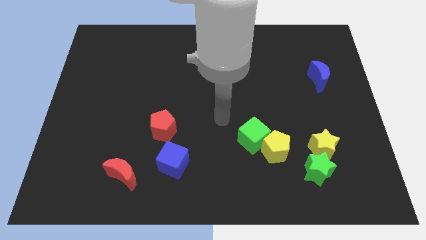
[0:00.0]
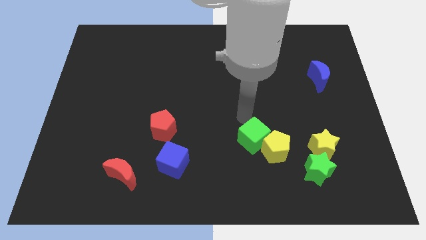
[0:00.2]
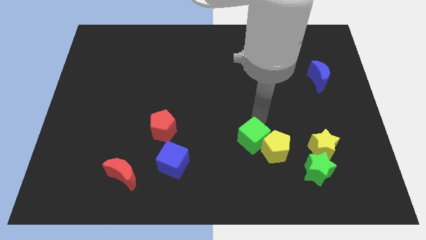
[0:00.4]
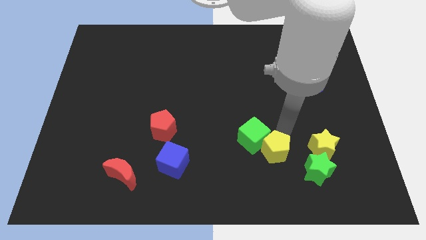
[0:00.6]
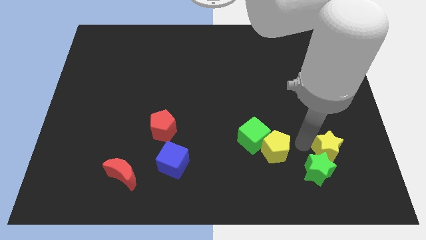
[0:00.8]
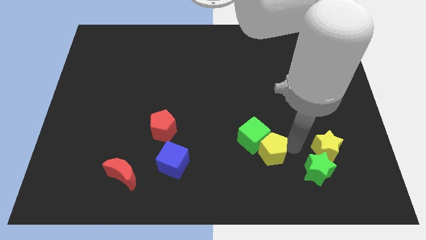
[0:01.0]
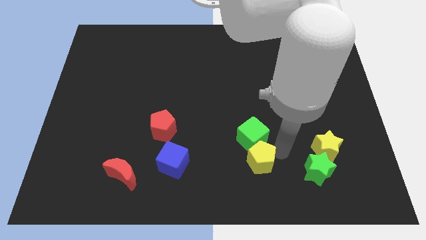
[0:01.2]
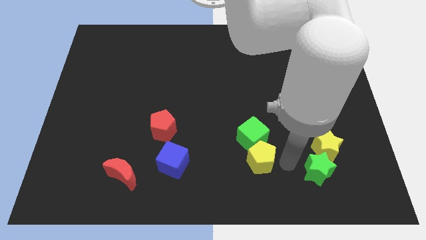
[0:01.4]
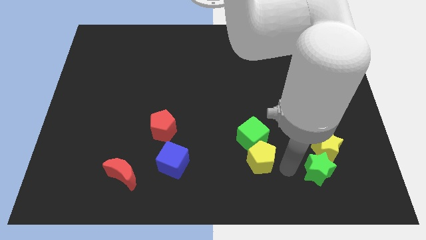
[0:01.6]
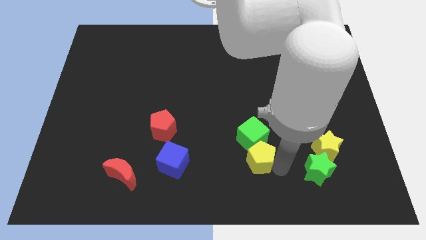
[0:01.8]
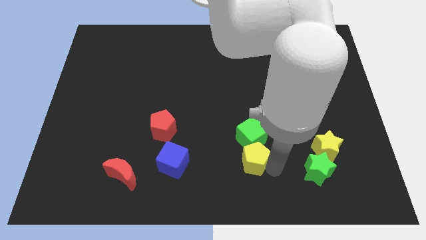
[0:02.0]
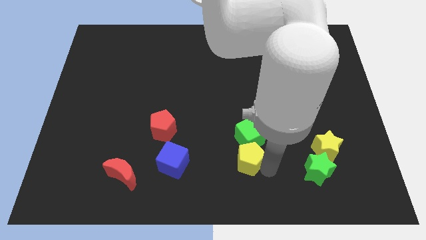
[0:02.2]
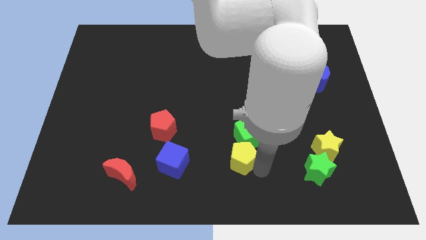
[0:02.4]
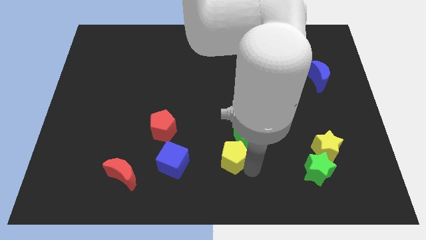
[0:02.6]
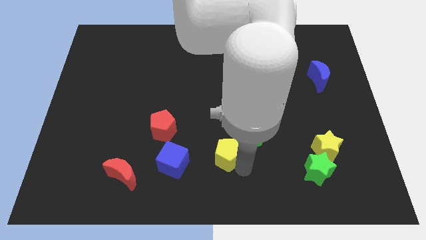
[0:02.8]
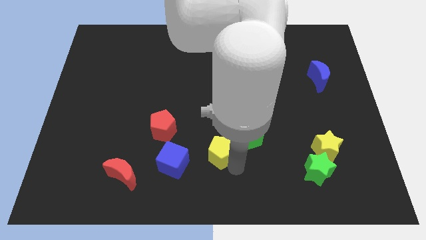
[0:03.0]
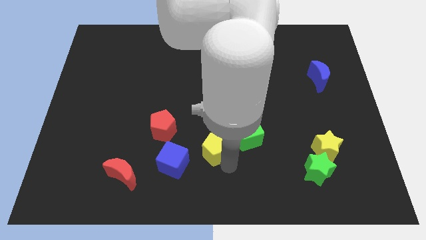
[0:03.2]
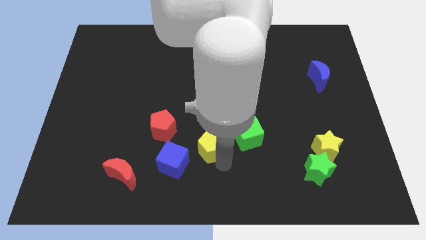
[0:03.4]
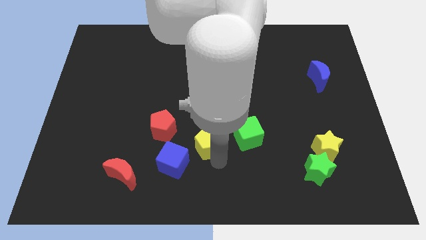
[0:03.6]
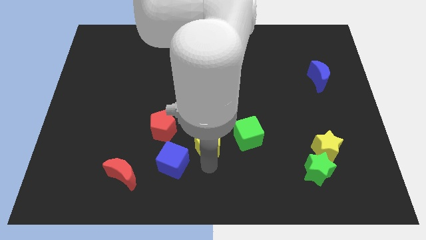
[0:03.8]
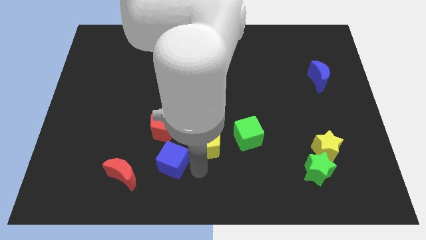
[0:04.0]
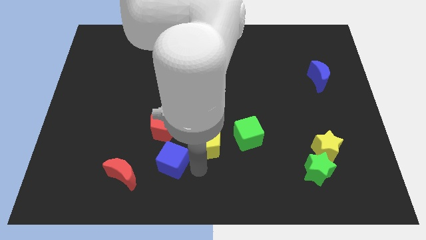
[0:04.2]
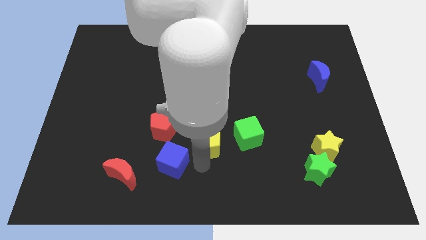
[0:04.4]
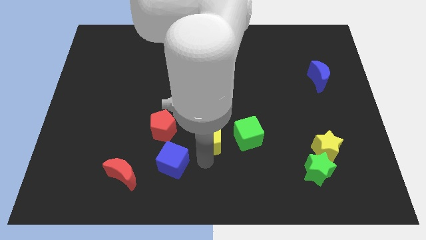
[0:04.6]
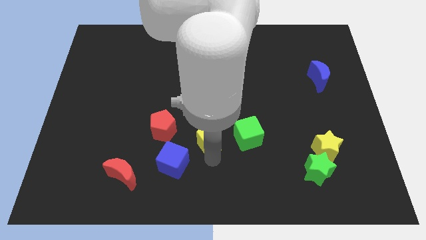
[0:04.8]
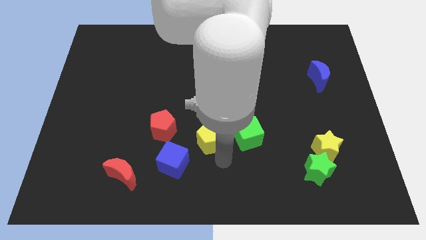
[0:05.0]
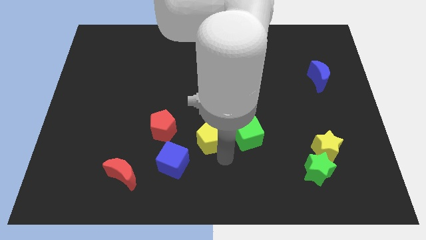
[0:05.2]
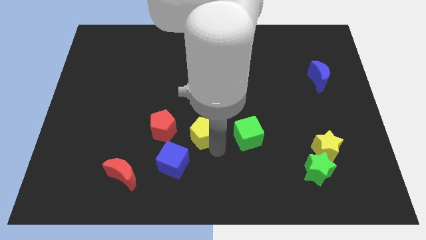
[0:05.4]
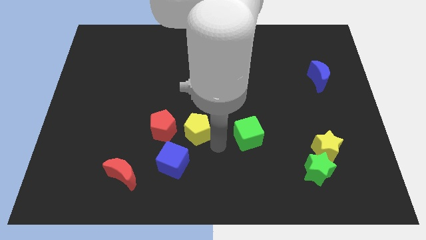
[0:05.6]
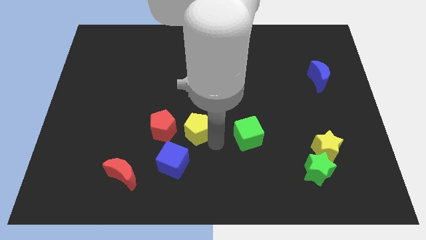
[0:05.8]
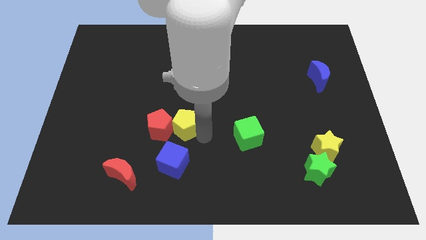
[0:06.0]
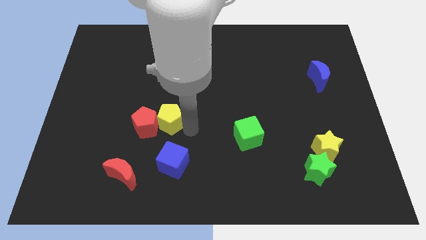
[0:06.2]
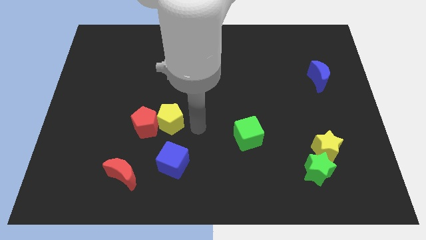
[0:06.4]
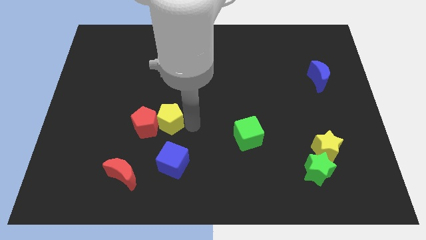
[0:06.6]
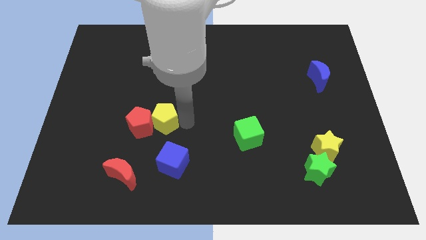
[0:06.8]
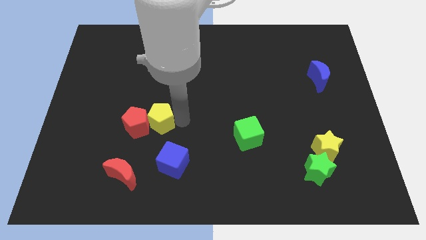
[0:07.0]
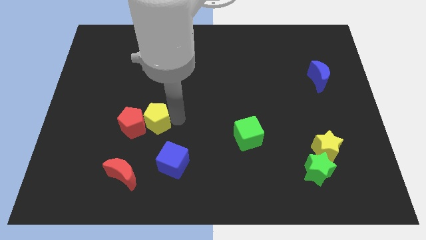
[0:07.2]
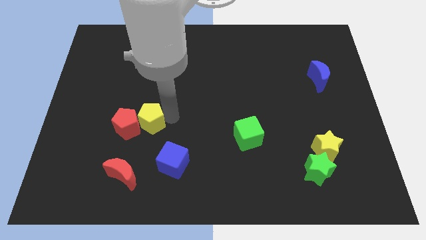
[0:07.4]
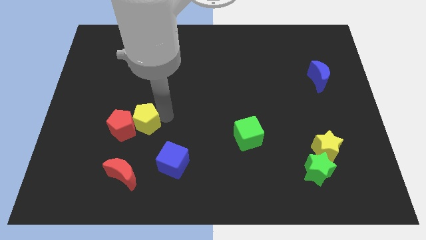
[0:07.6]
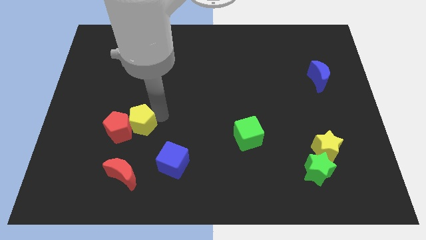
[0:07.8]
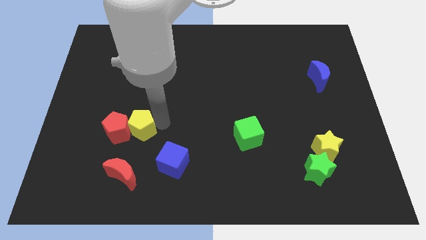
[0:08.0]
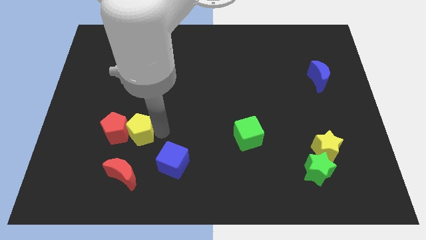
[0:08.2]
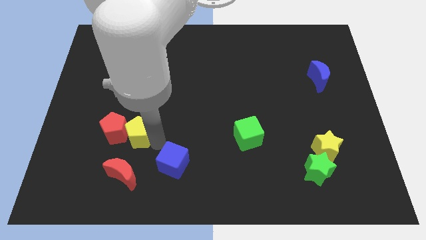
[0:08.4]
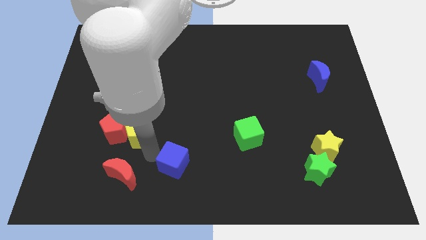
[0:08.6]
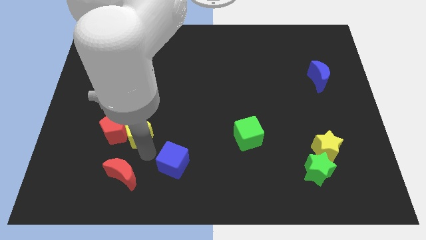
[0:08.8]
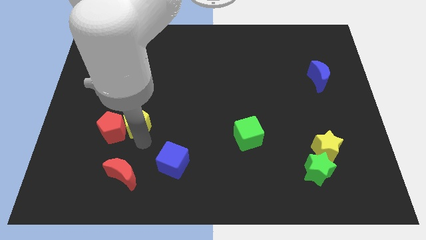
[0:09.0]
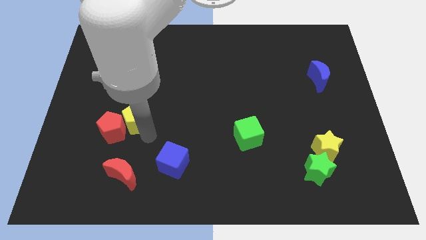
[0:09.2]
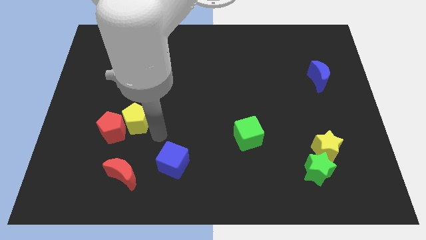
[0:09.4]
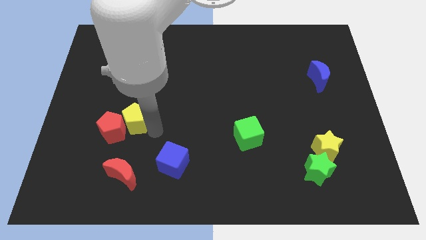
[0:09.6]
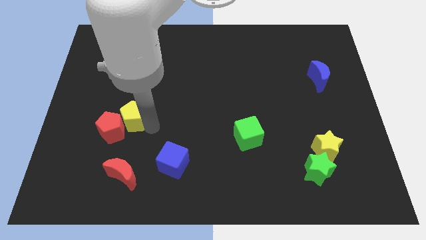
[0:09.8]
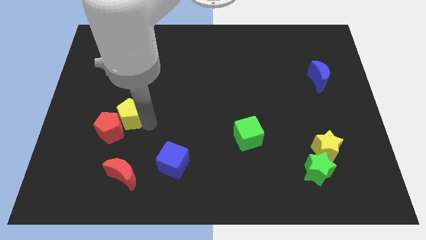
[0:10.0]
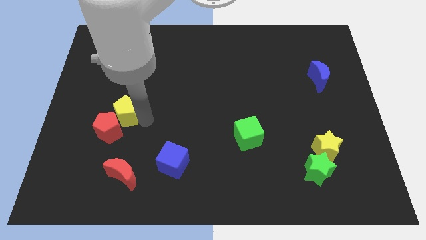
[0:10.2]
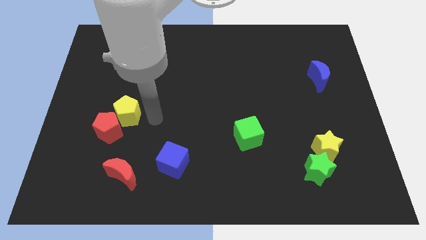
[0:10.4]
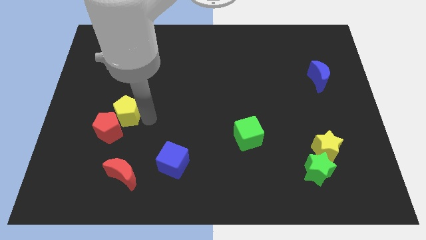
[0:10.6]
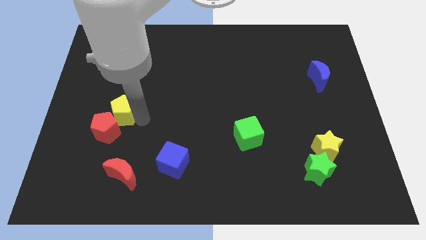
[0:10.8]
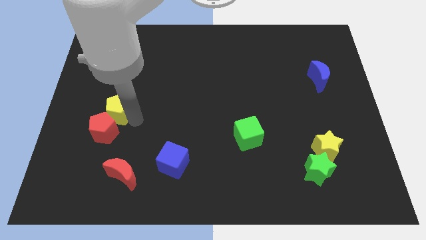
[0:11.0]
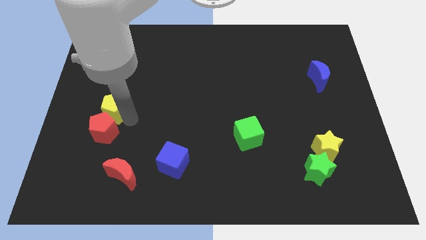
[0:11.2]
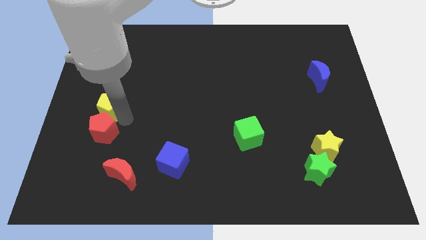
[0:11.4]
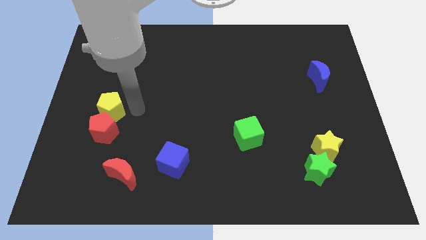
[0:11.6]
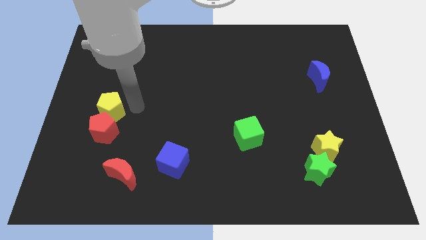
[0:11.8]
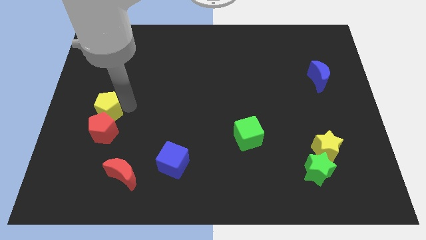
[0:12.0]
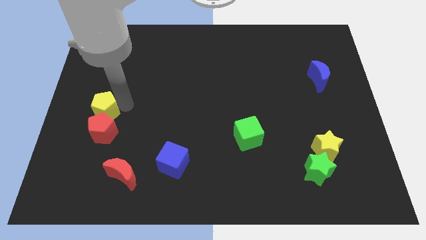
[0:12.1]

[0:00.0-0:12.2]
slide the yellow pentagon to the center left

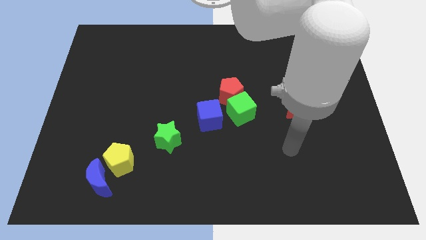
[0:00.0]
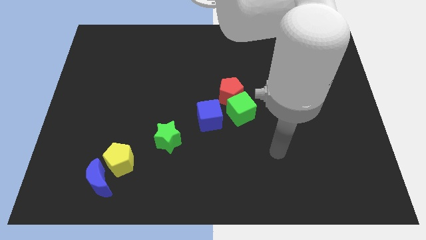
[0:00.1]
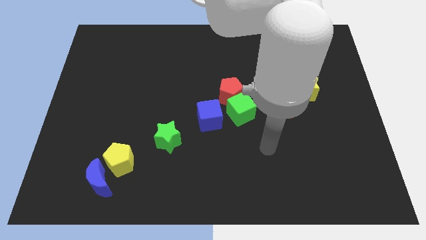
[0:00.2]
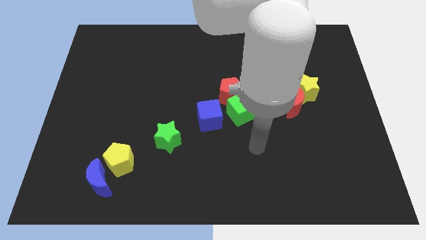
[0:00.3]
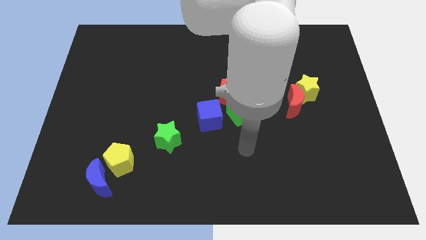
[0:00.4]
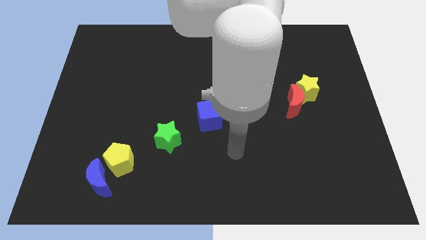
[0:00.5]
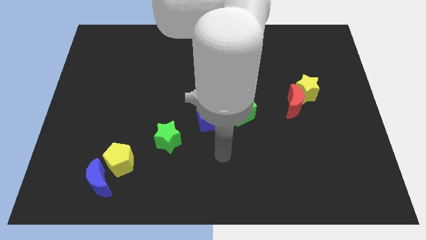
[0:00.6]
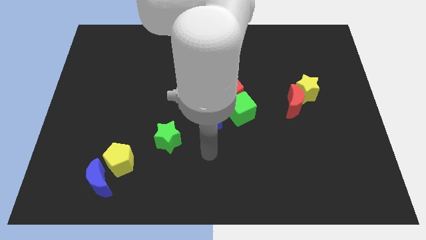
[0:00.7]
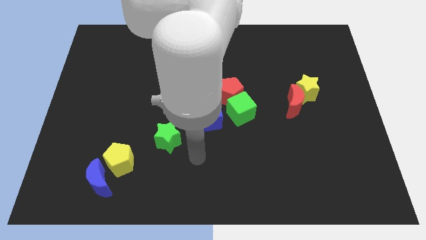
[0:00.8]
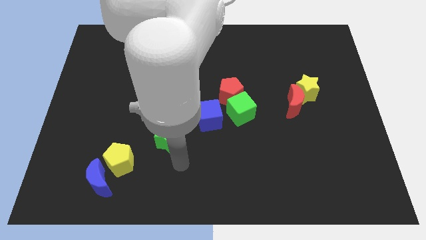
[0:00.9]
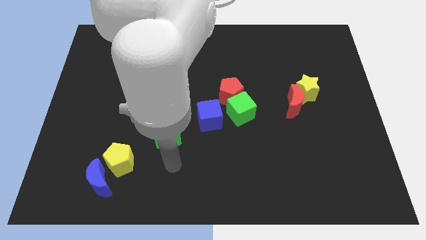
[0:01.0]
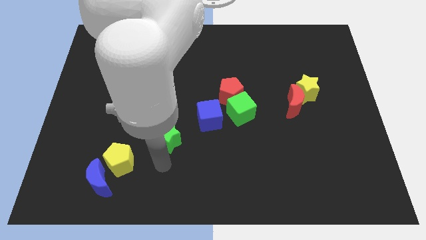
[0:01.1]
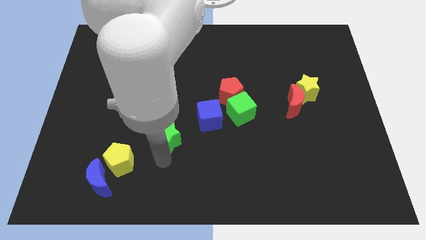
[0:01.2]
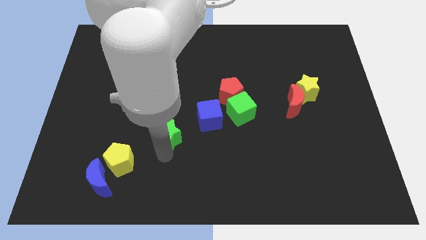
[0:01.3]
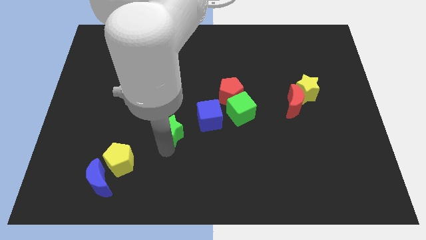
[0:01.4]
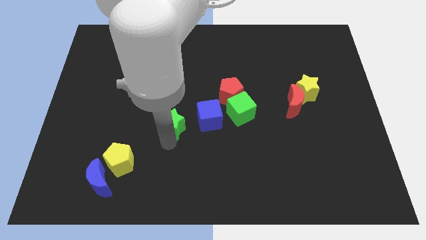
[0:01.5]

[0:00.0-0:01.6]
put the green star to the middle
